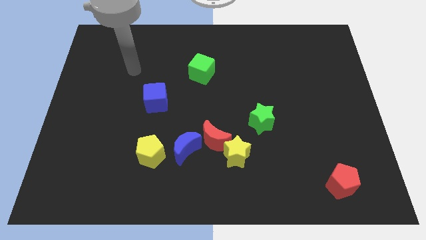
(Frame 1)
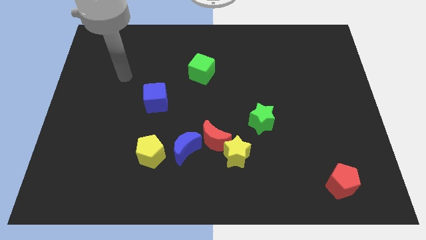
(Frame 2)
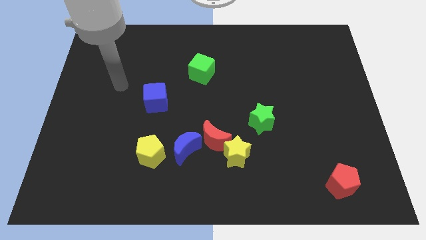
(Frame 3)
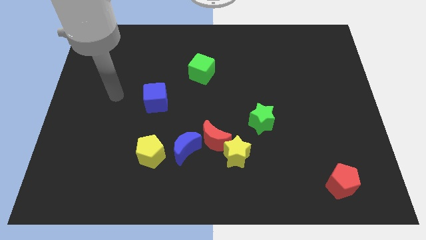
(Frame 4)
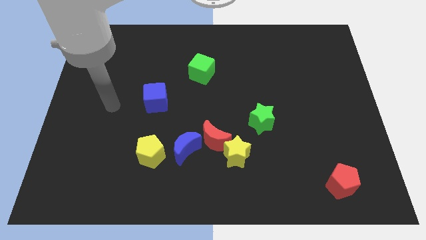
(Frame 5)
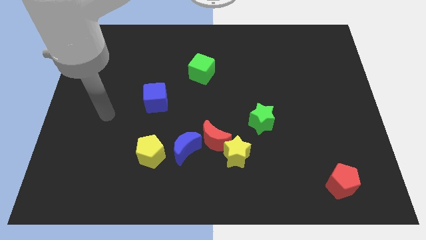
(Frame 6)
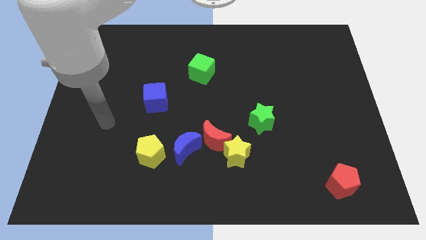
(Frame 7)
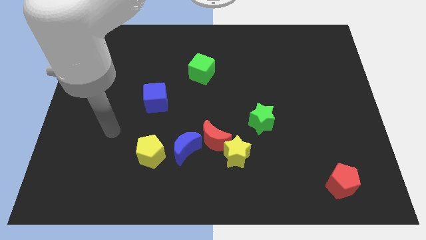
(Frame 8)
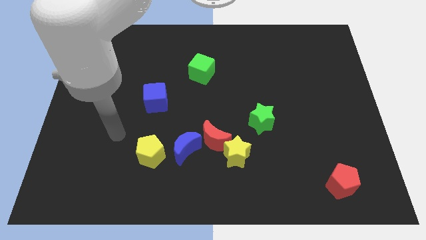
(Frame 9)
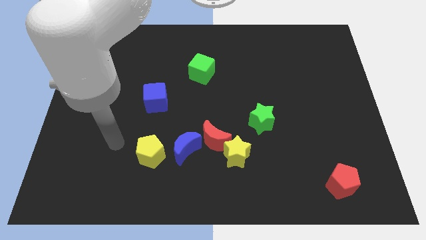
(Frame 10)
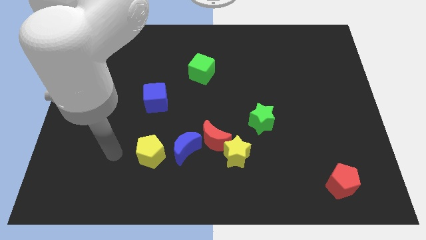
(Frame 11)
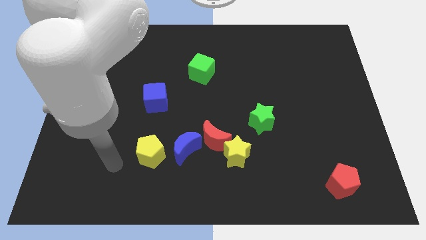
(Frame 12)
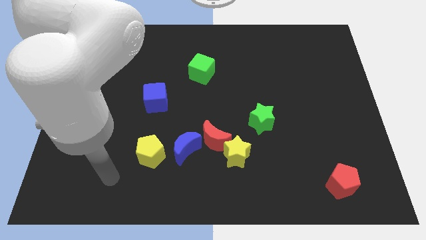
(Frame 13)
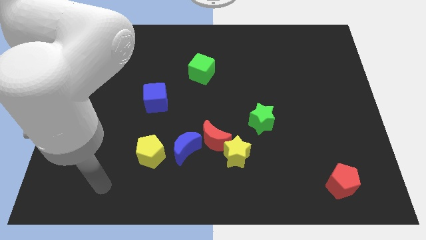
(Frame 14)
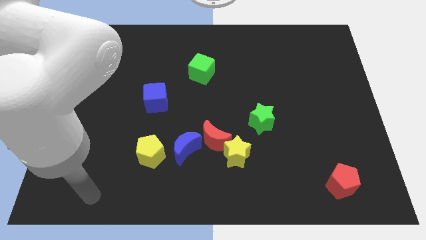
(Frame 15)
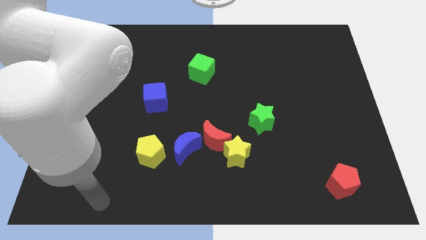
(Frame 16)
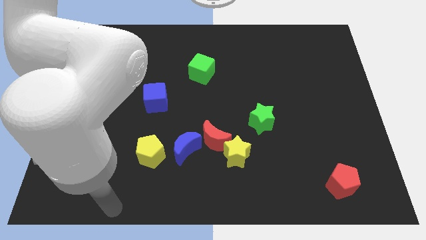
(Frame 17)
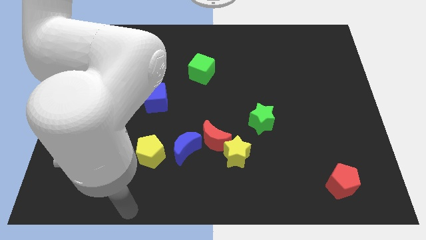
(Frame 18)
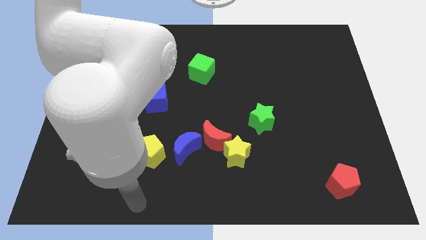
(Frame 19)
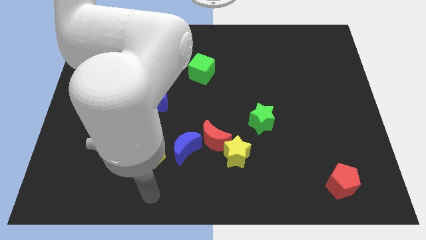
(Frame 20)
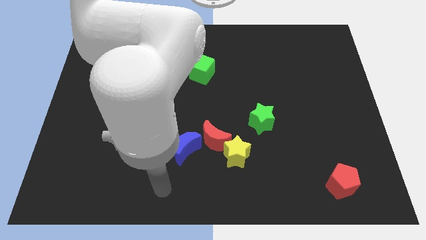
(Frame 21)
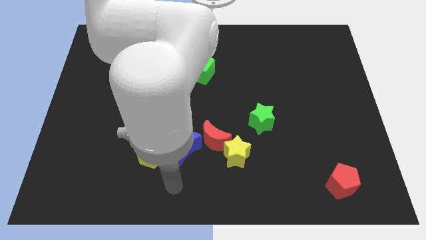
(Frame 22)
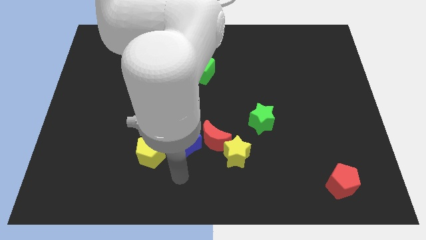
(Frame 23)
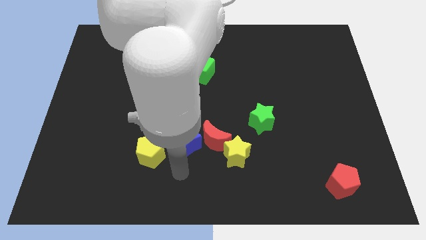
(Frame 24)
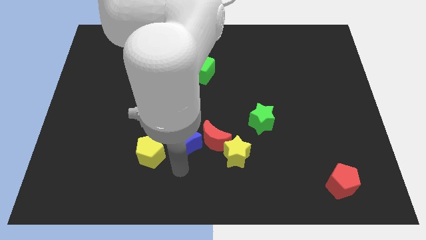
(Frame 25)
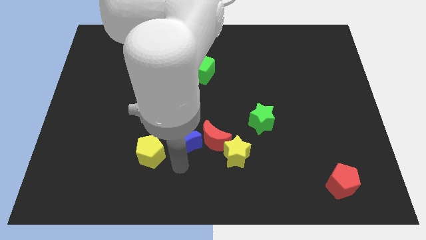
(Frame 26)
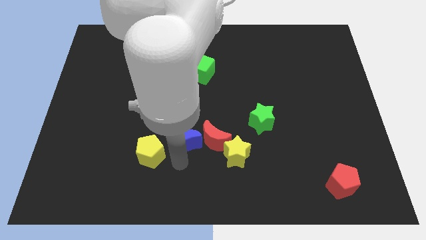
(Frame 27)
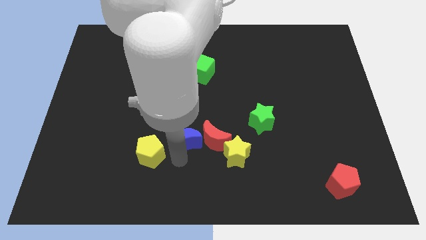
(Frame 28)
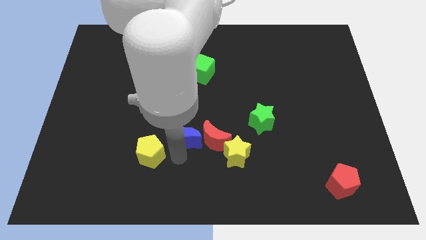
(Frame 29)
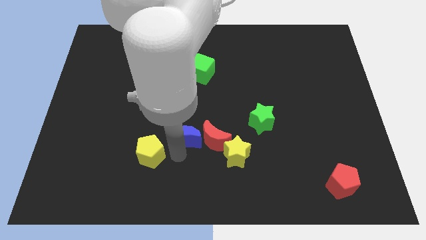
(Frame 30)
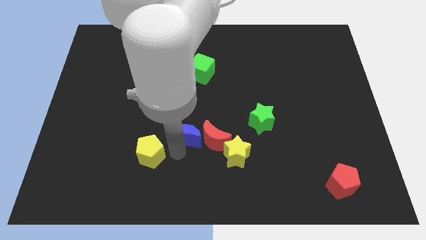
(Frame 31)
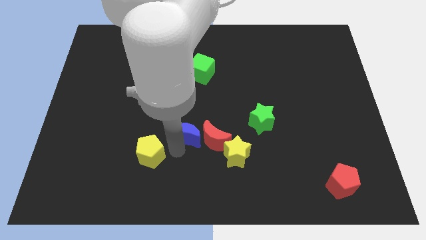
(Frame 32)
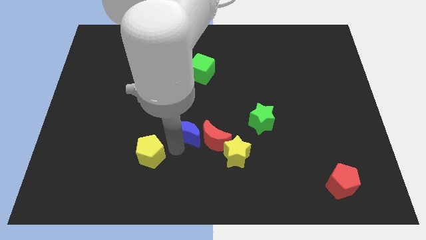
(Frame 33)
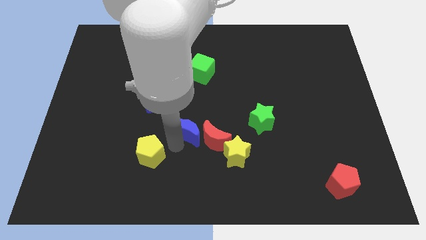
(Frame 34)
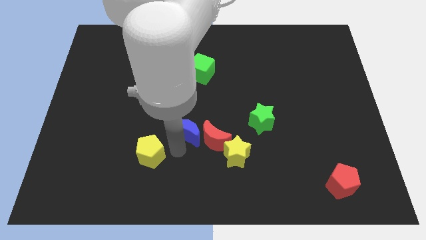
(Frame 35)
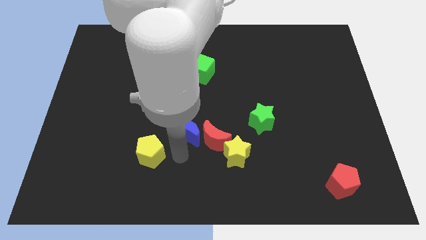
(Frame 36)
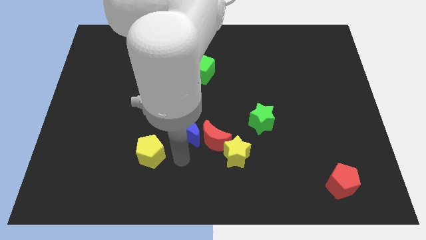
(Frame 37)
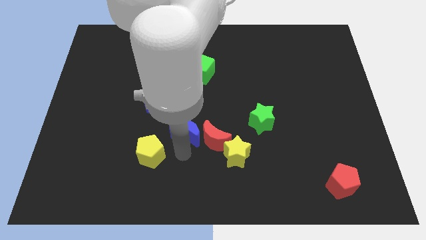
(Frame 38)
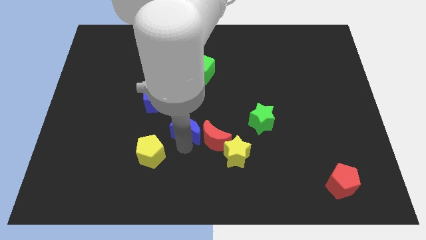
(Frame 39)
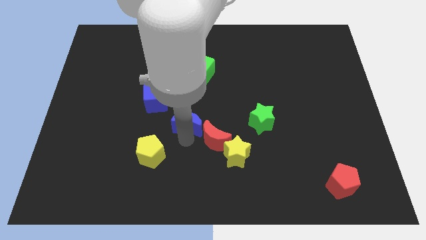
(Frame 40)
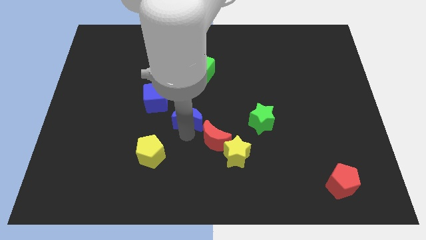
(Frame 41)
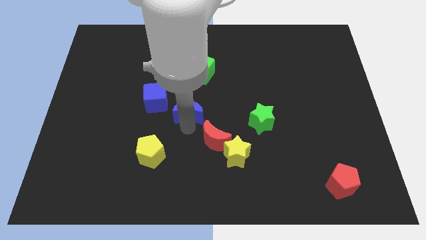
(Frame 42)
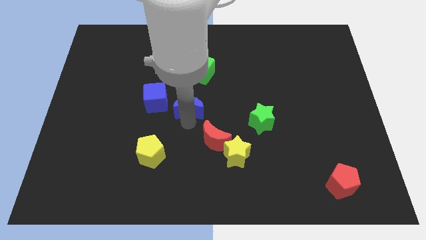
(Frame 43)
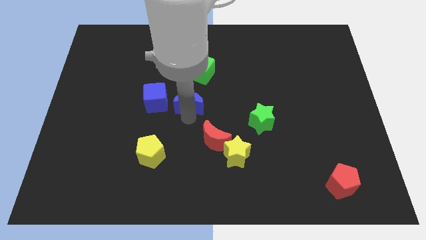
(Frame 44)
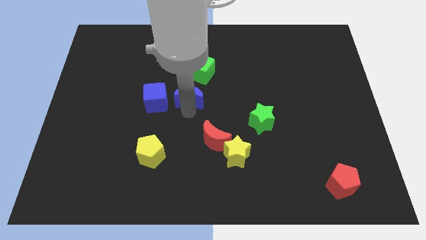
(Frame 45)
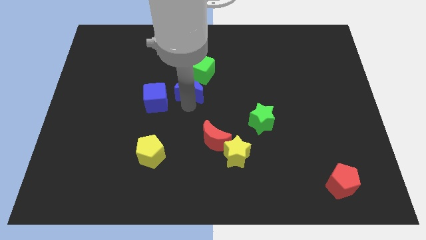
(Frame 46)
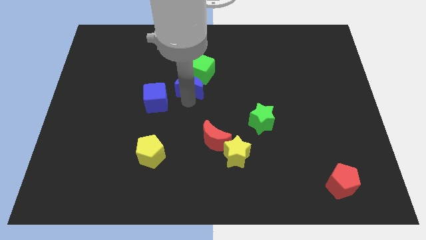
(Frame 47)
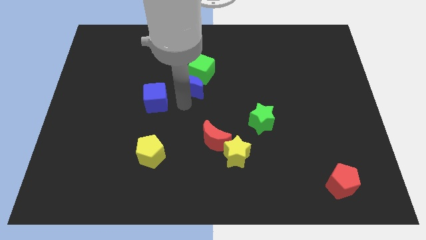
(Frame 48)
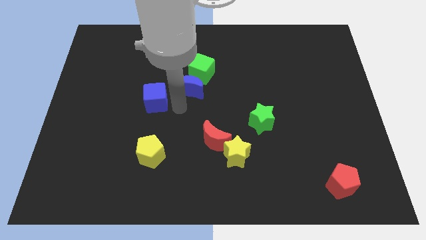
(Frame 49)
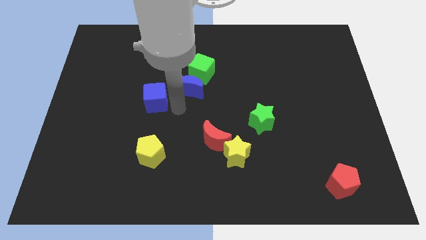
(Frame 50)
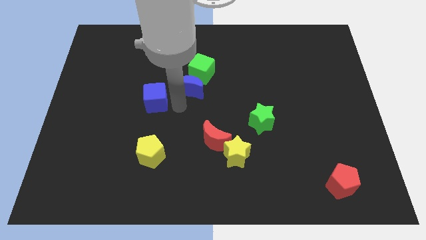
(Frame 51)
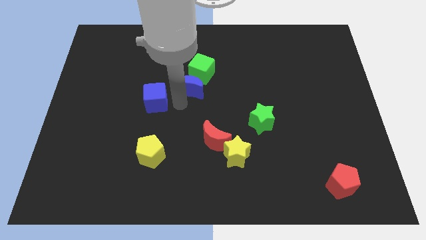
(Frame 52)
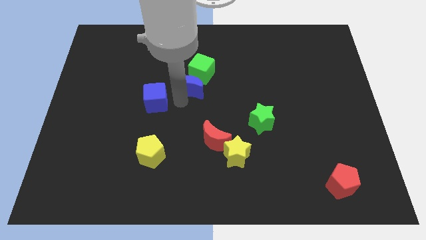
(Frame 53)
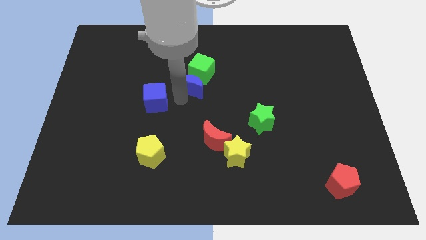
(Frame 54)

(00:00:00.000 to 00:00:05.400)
push the blue moon to the green cube

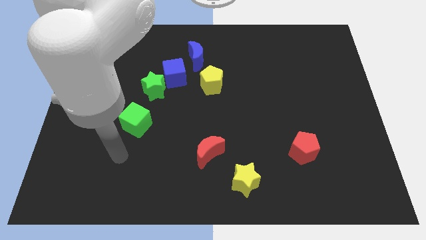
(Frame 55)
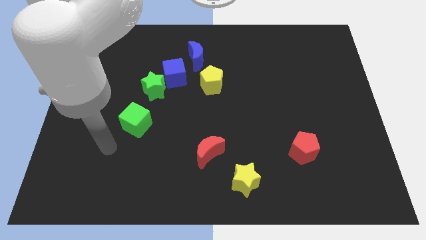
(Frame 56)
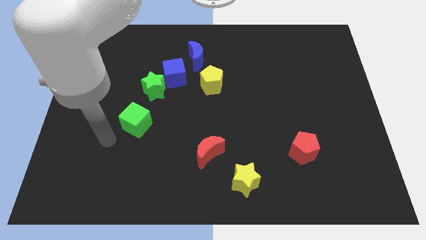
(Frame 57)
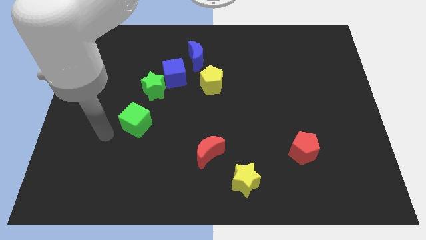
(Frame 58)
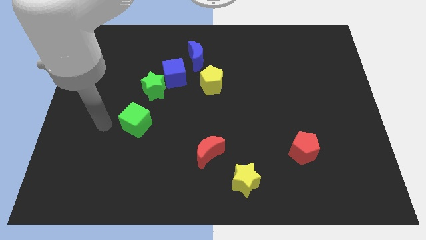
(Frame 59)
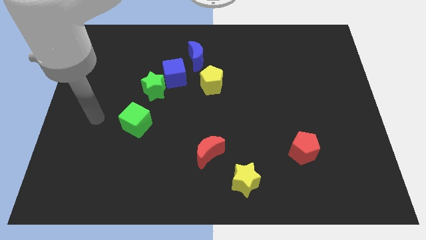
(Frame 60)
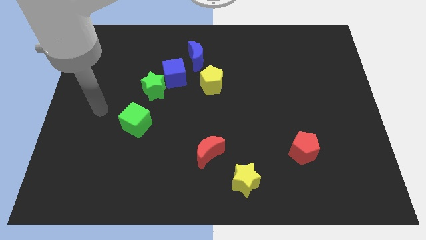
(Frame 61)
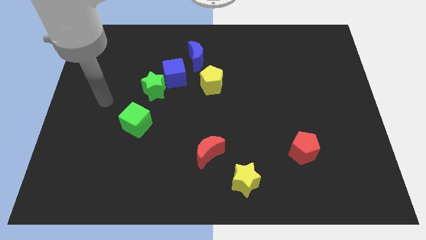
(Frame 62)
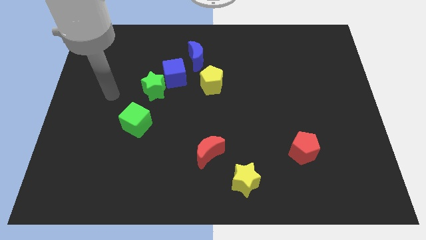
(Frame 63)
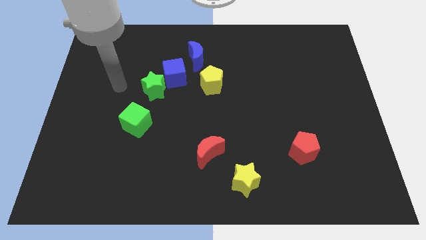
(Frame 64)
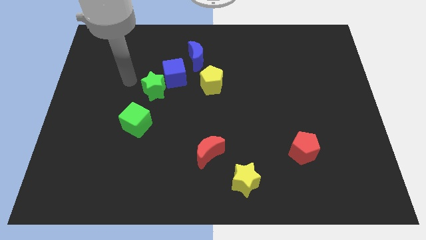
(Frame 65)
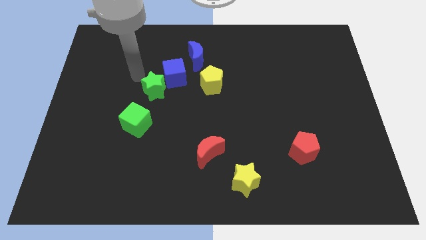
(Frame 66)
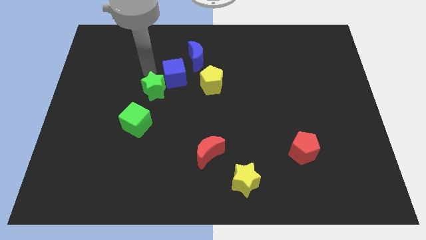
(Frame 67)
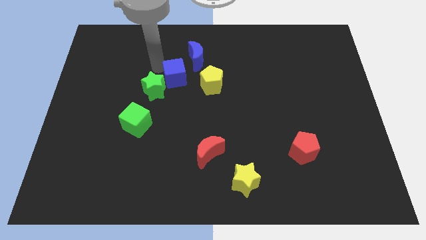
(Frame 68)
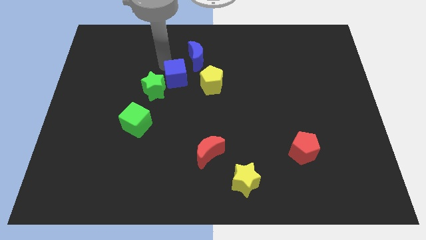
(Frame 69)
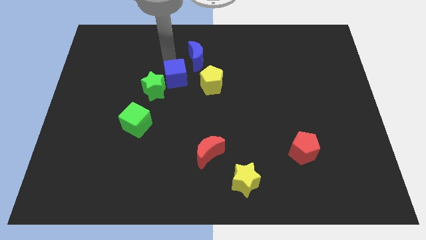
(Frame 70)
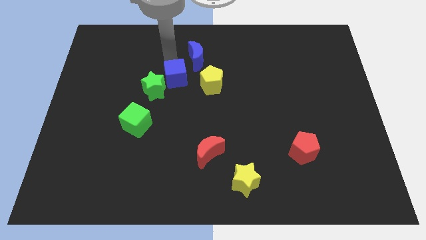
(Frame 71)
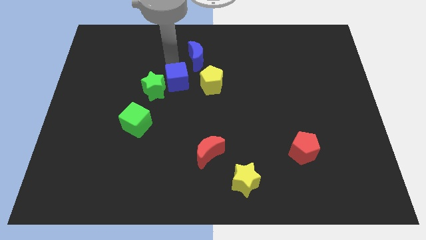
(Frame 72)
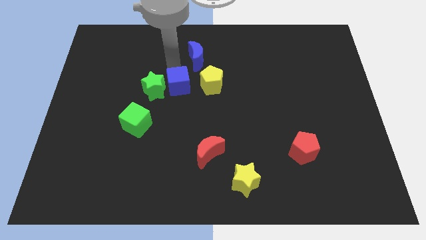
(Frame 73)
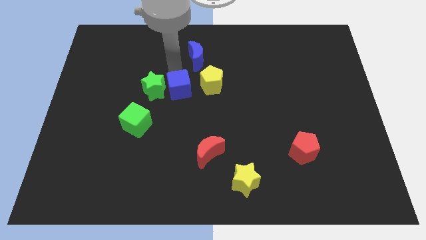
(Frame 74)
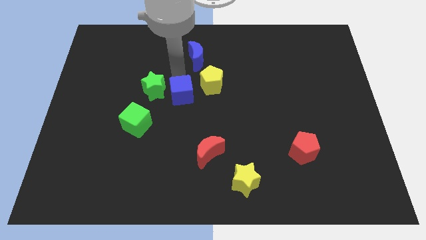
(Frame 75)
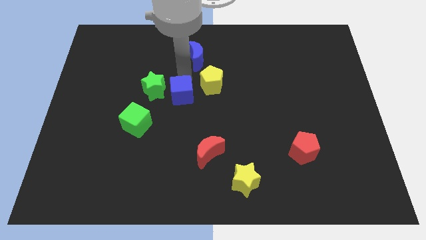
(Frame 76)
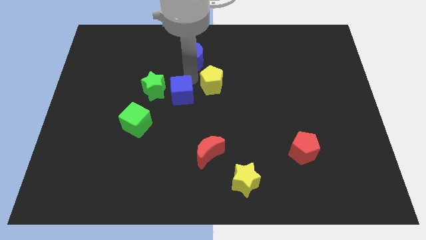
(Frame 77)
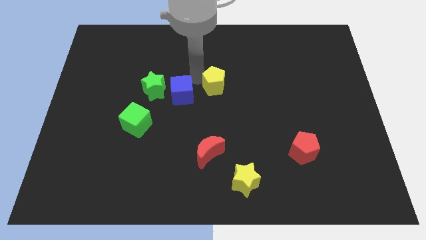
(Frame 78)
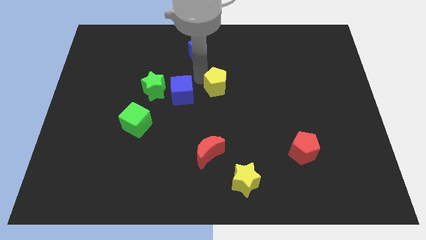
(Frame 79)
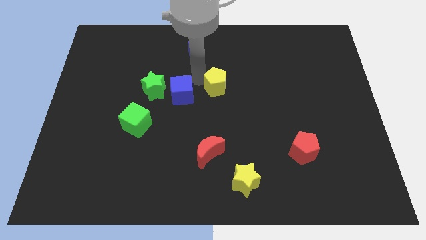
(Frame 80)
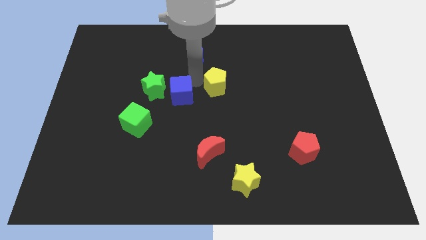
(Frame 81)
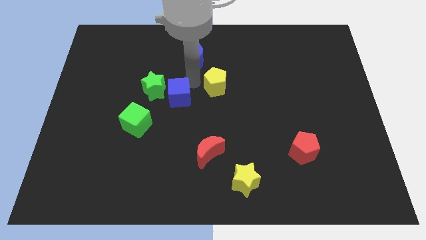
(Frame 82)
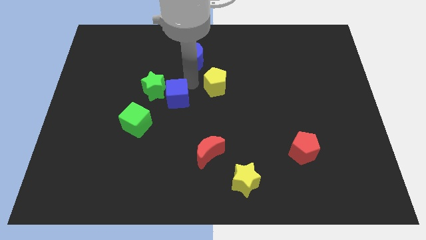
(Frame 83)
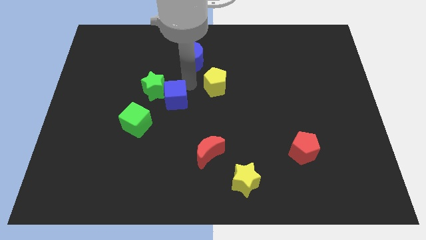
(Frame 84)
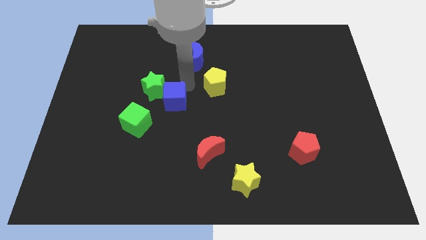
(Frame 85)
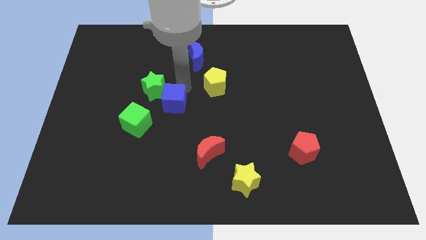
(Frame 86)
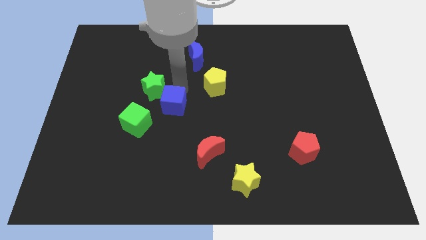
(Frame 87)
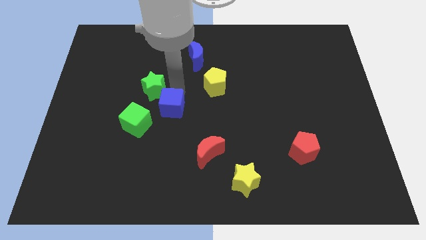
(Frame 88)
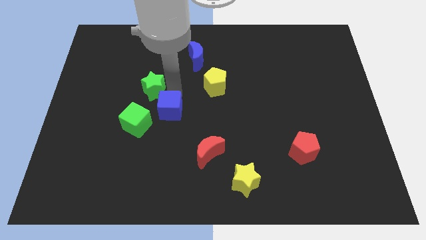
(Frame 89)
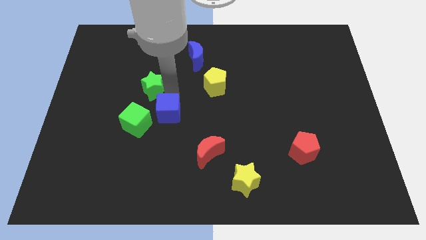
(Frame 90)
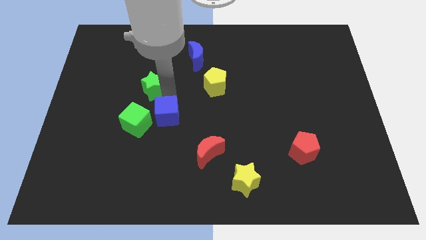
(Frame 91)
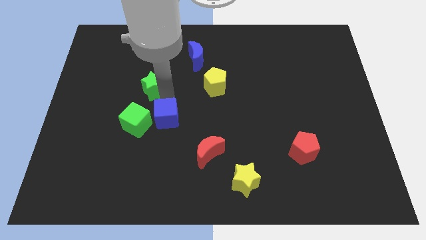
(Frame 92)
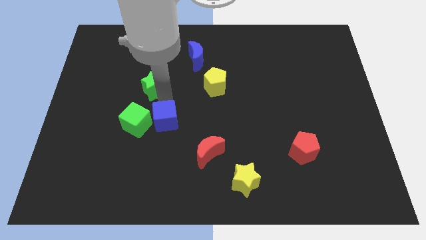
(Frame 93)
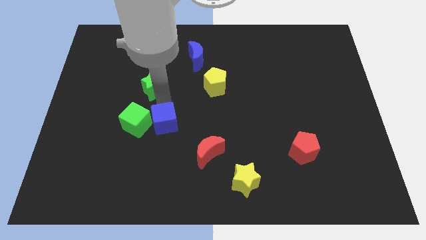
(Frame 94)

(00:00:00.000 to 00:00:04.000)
move the blue cube close to the green cube
